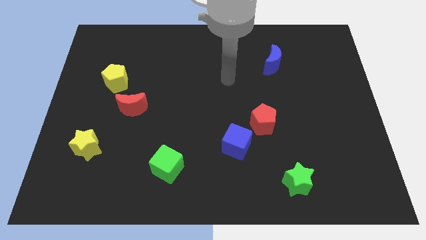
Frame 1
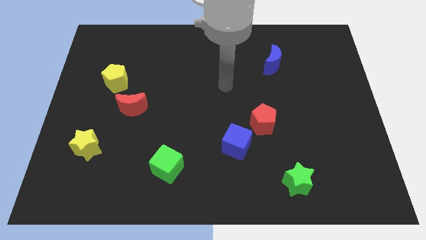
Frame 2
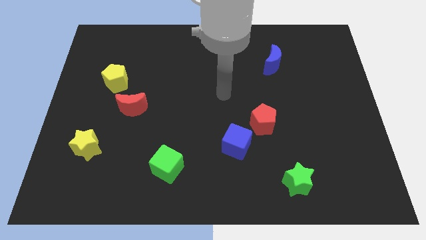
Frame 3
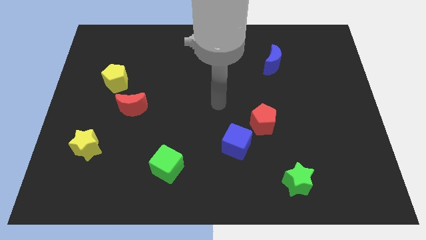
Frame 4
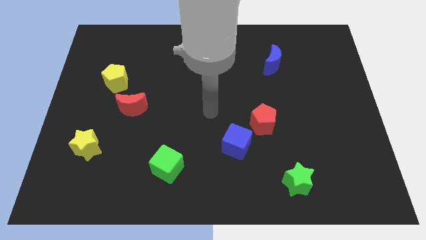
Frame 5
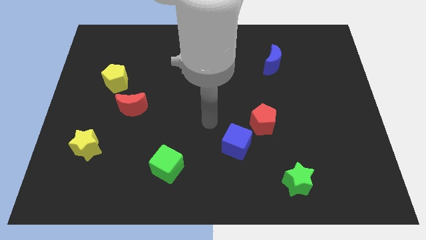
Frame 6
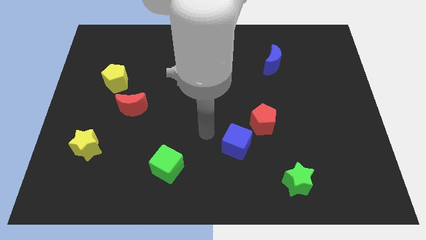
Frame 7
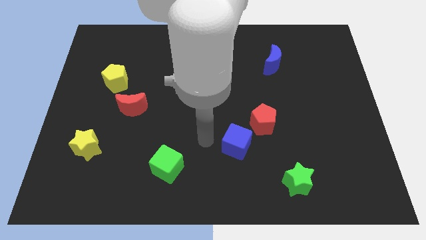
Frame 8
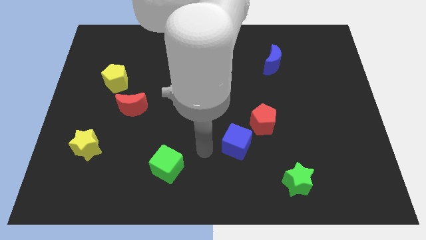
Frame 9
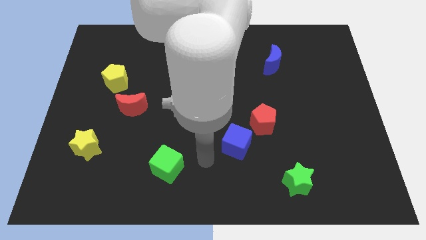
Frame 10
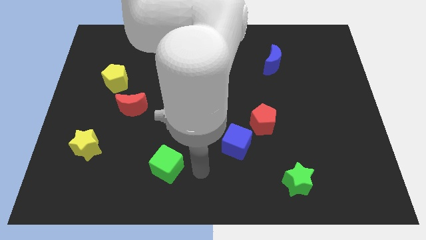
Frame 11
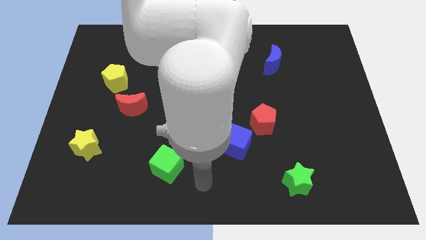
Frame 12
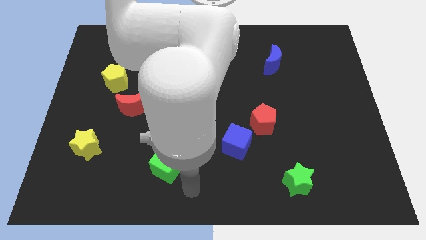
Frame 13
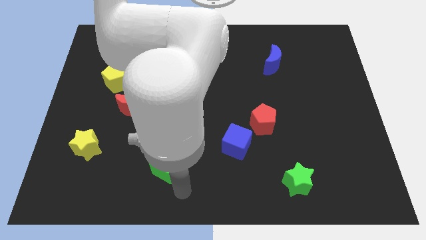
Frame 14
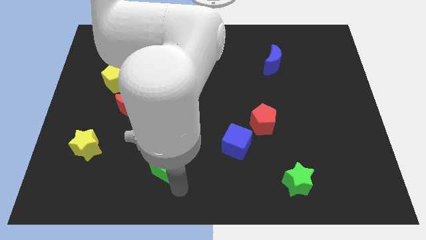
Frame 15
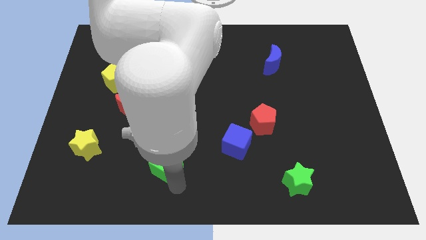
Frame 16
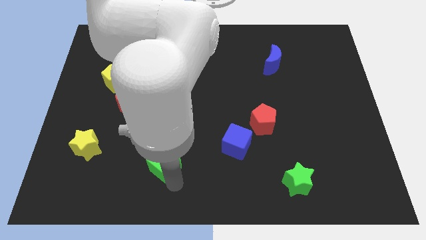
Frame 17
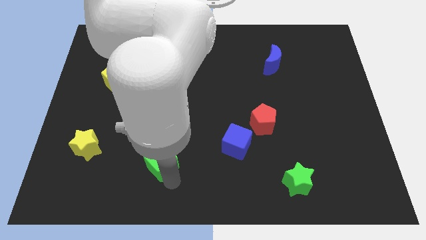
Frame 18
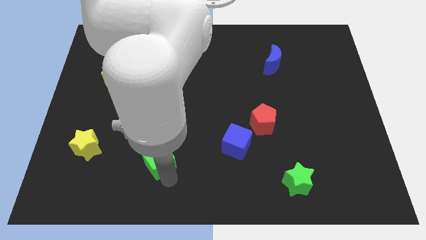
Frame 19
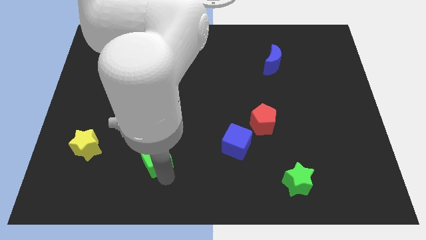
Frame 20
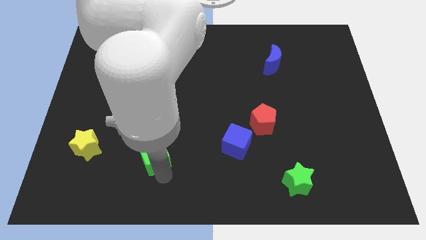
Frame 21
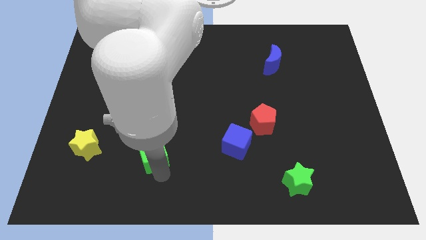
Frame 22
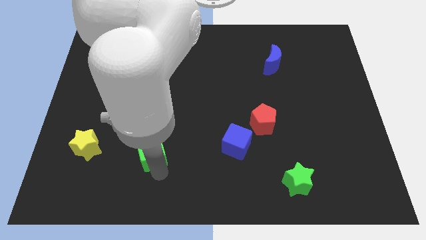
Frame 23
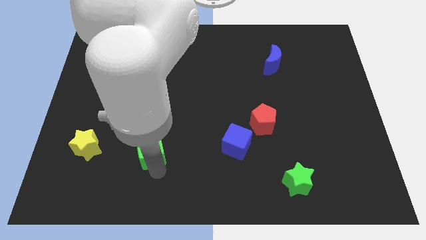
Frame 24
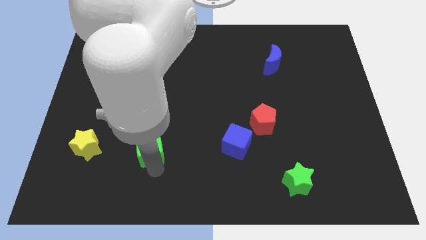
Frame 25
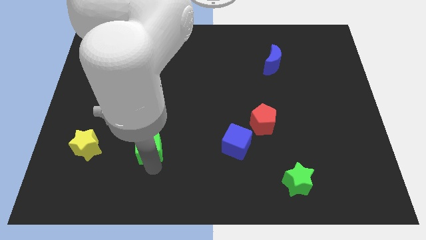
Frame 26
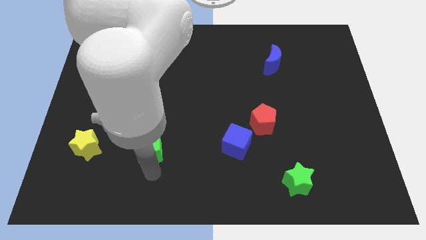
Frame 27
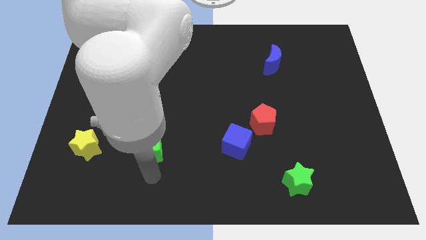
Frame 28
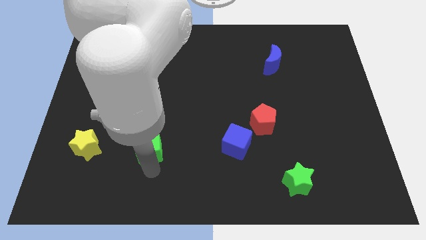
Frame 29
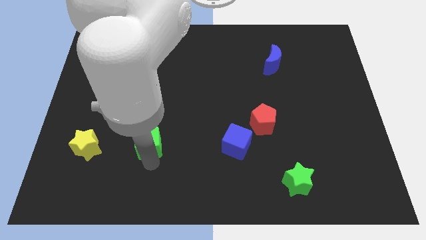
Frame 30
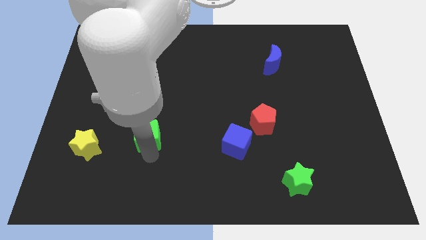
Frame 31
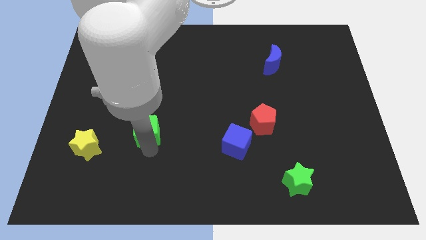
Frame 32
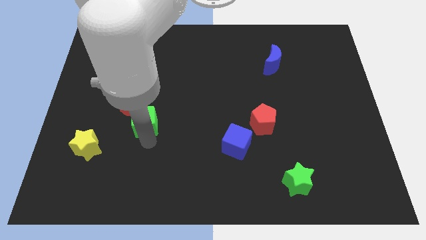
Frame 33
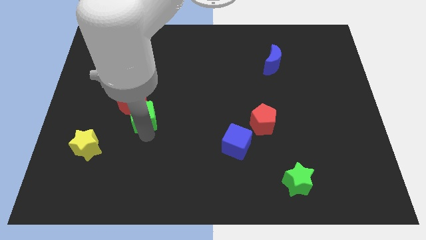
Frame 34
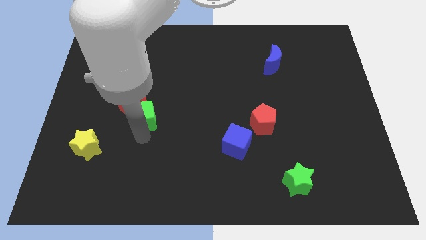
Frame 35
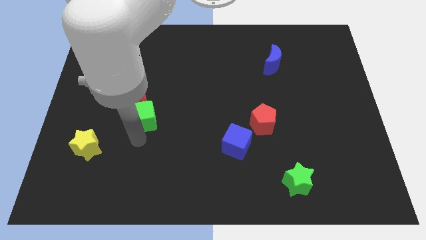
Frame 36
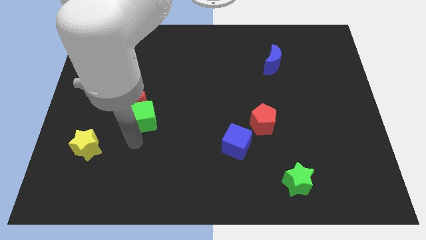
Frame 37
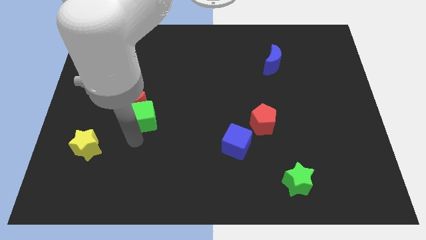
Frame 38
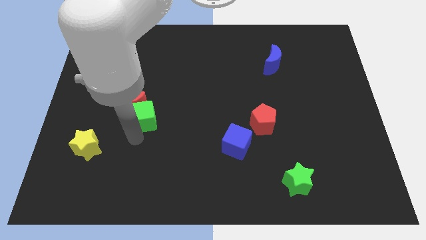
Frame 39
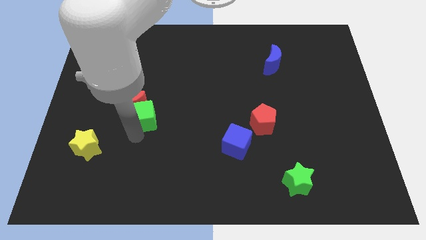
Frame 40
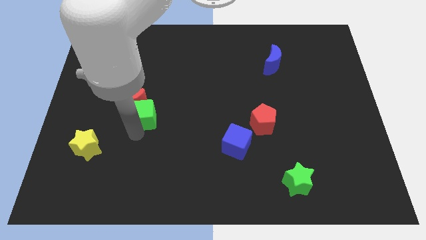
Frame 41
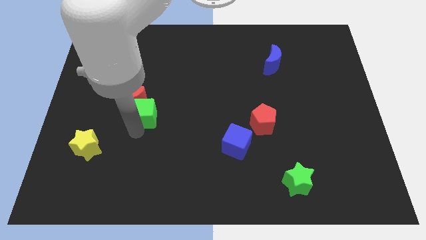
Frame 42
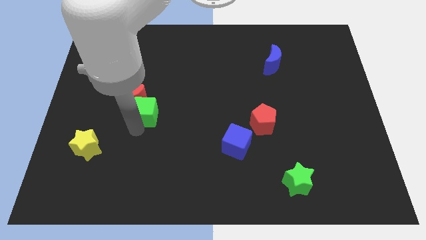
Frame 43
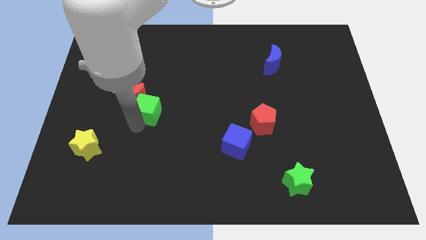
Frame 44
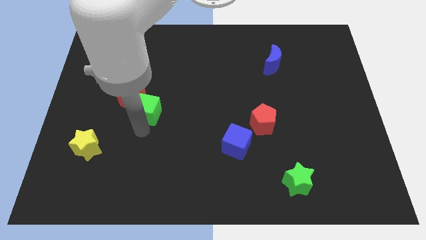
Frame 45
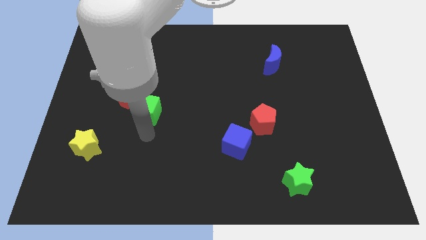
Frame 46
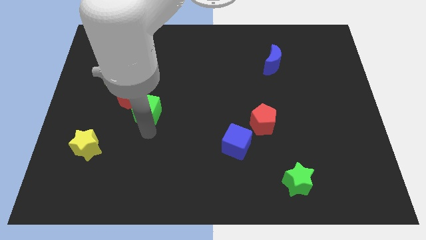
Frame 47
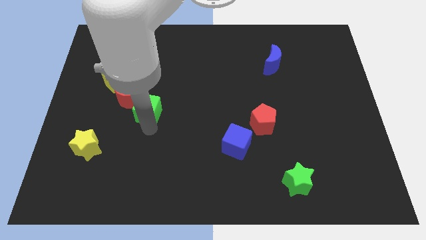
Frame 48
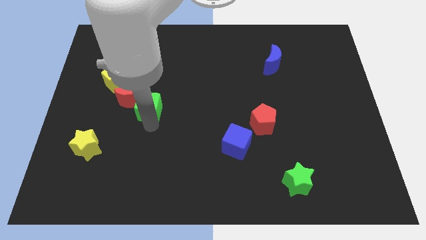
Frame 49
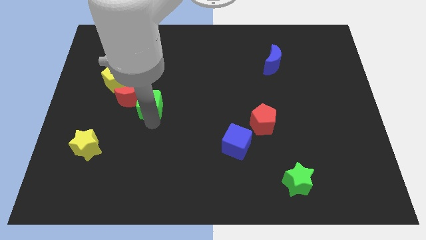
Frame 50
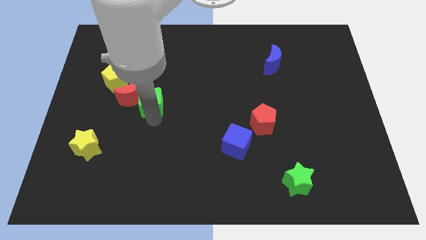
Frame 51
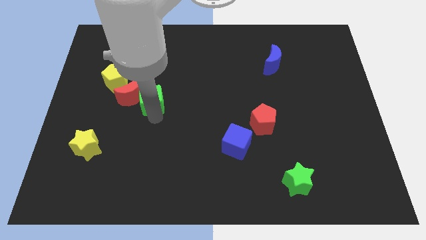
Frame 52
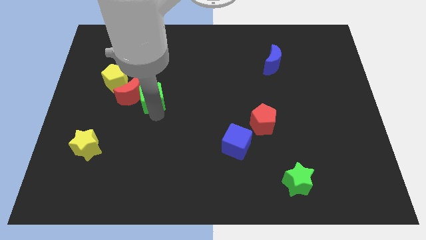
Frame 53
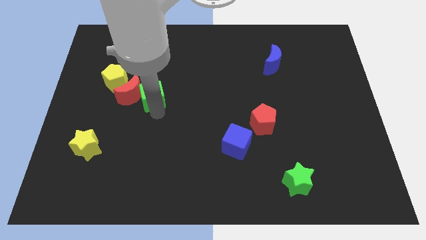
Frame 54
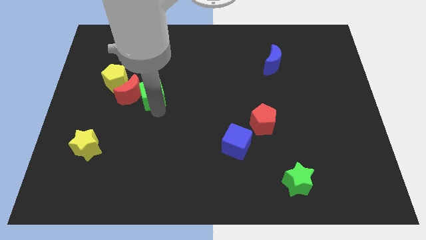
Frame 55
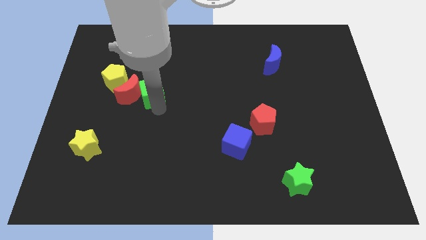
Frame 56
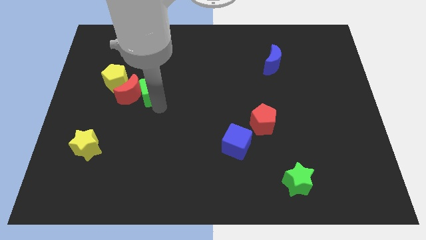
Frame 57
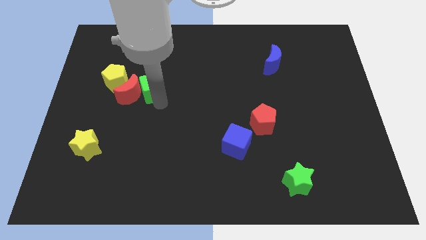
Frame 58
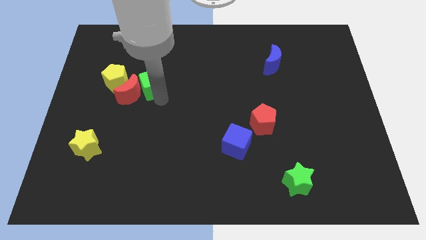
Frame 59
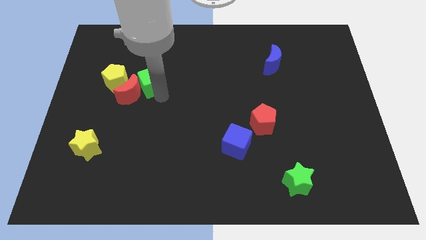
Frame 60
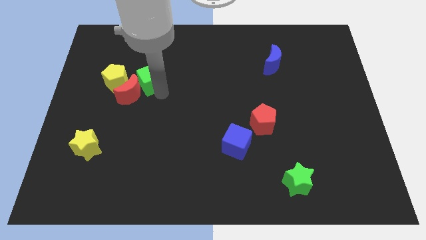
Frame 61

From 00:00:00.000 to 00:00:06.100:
push the green cube to the top side of the red moon
